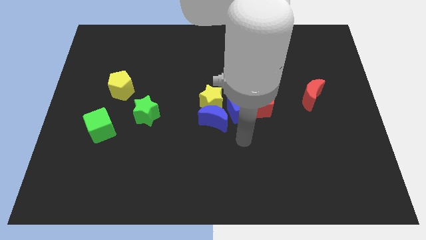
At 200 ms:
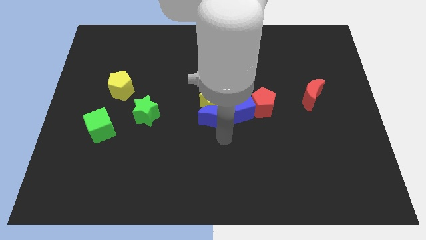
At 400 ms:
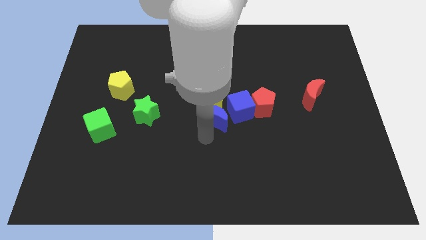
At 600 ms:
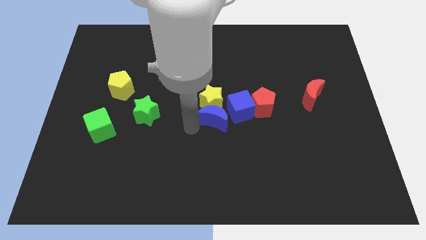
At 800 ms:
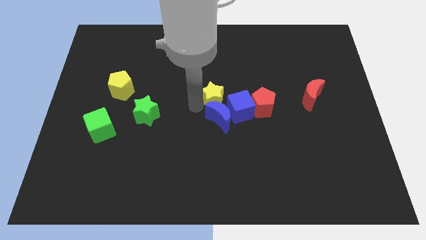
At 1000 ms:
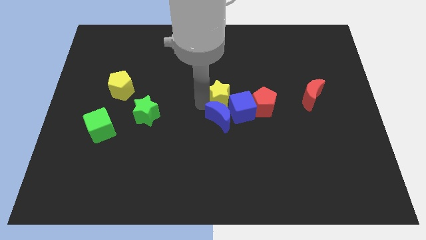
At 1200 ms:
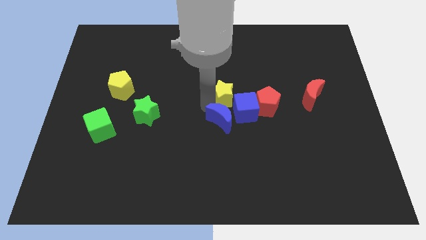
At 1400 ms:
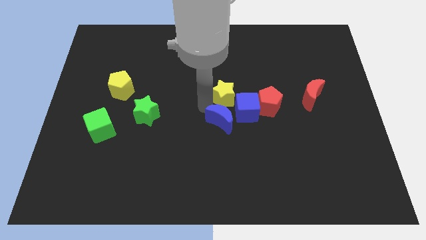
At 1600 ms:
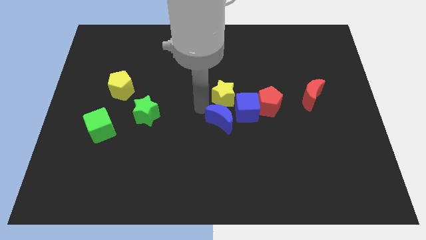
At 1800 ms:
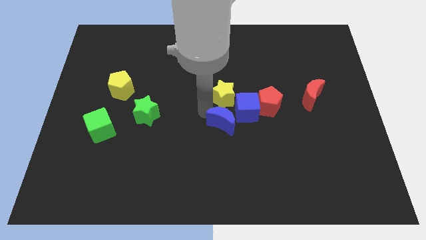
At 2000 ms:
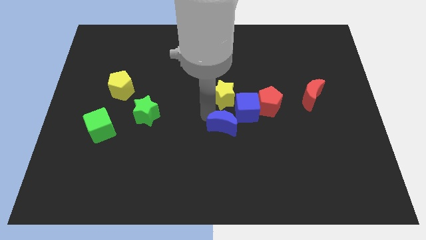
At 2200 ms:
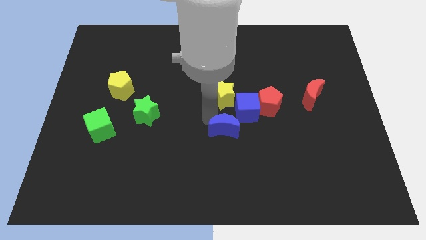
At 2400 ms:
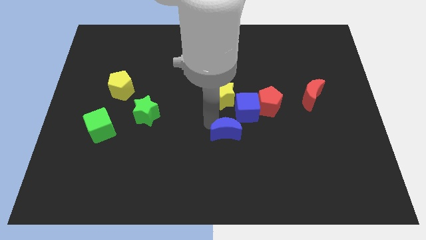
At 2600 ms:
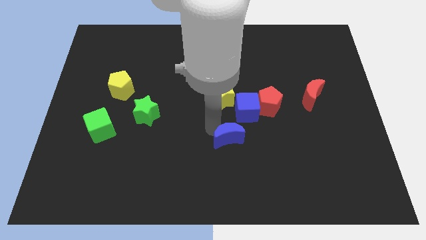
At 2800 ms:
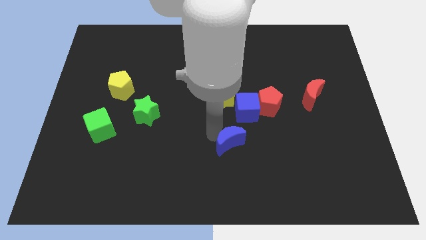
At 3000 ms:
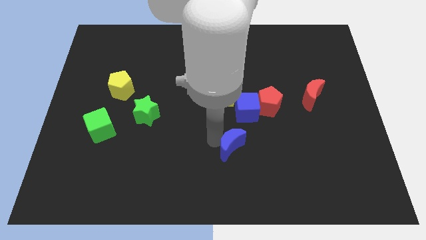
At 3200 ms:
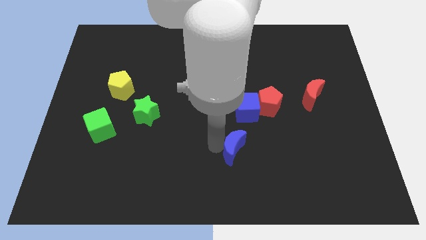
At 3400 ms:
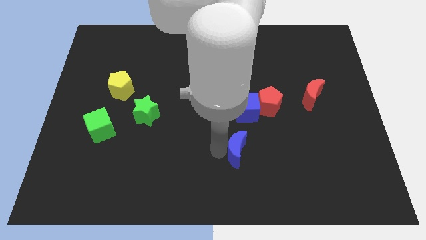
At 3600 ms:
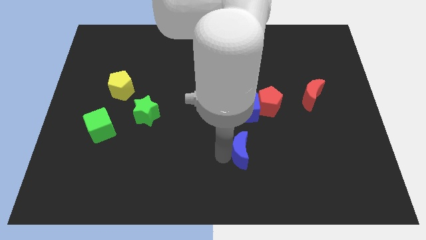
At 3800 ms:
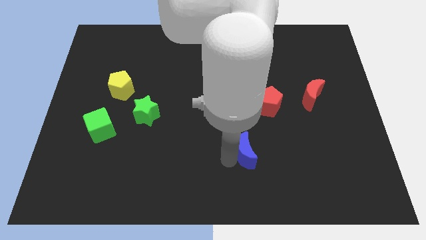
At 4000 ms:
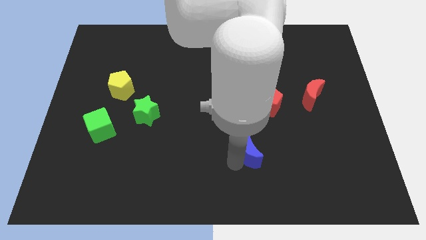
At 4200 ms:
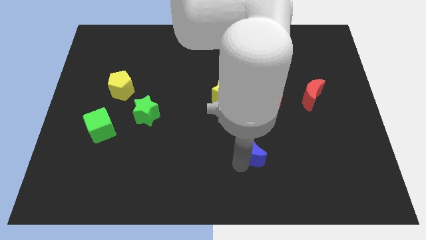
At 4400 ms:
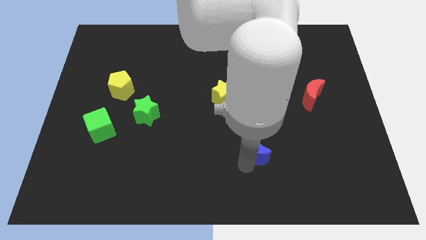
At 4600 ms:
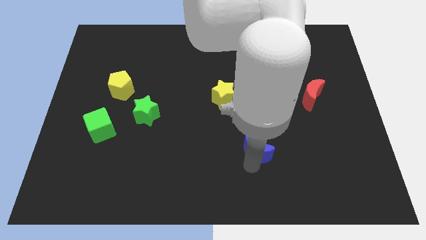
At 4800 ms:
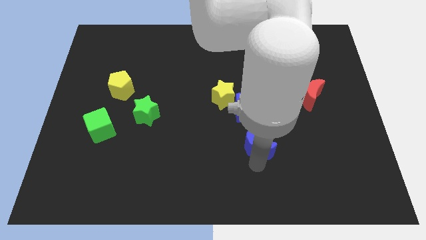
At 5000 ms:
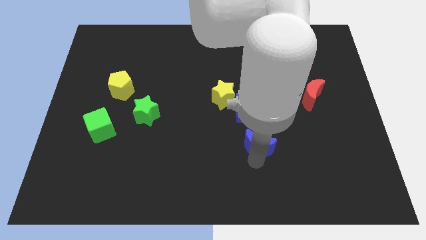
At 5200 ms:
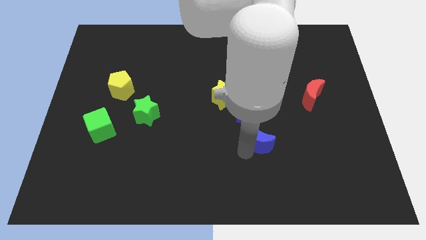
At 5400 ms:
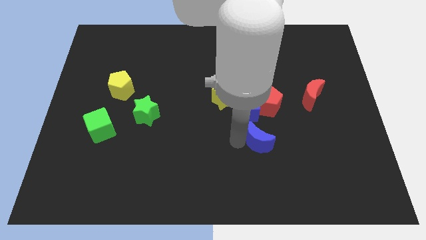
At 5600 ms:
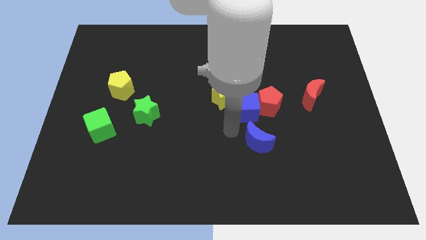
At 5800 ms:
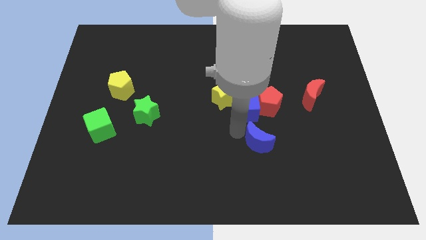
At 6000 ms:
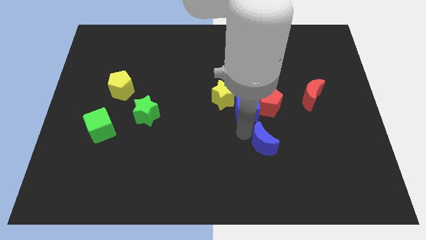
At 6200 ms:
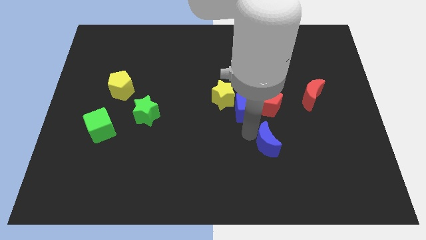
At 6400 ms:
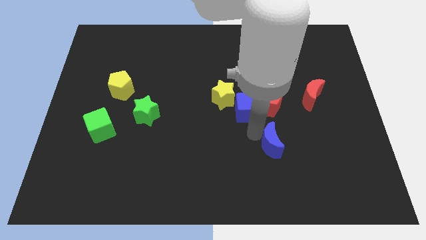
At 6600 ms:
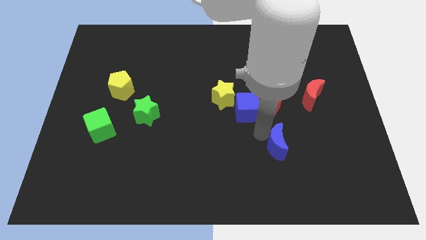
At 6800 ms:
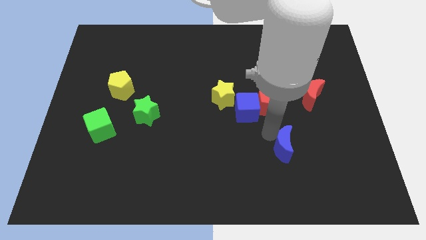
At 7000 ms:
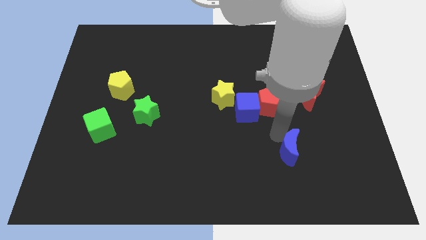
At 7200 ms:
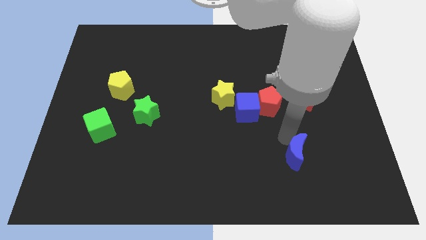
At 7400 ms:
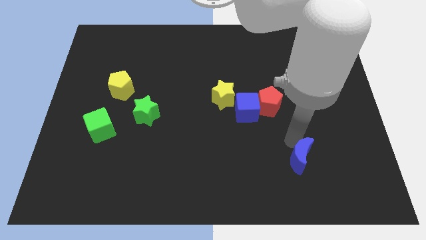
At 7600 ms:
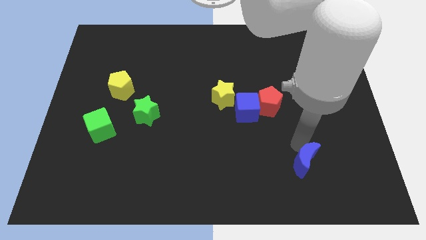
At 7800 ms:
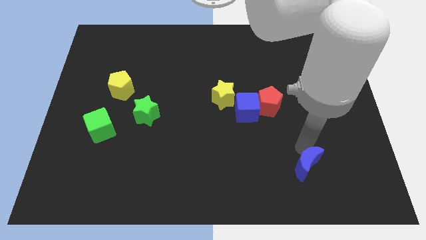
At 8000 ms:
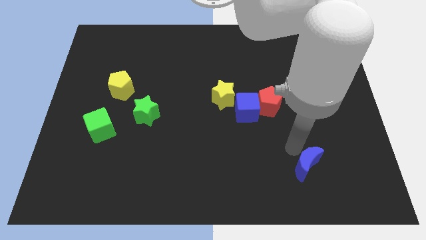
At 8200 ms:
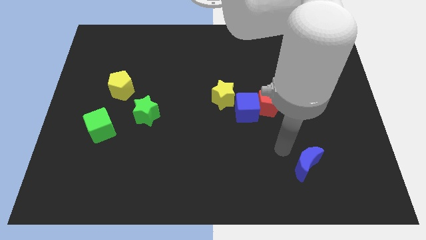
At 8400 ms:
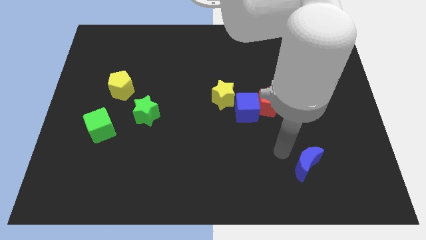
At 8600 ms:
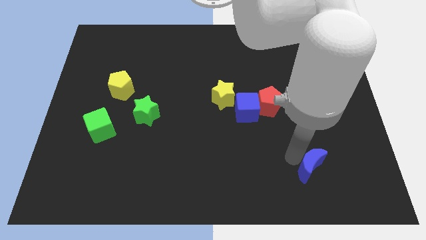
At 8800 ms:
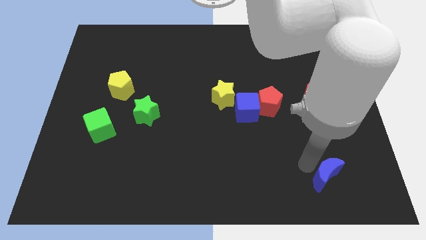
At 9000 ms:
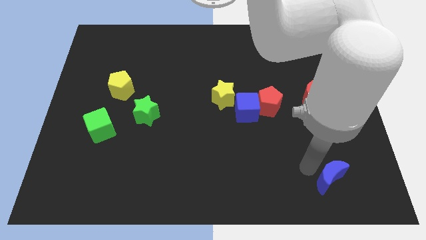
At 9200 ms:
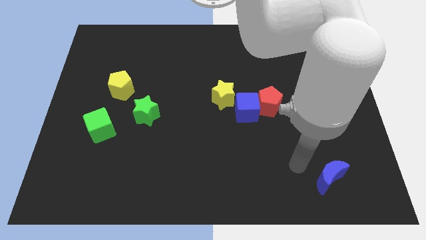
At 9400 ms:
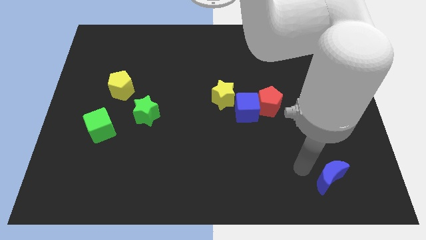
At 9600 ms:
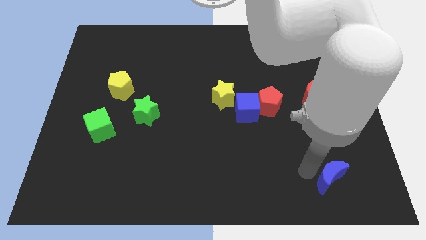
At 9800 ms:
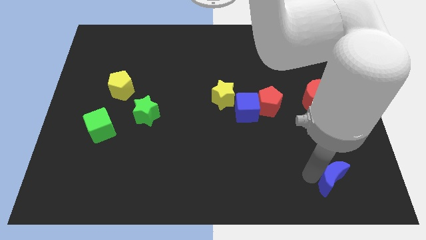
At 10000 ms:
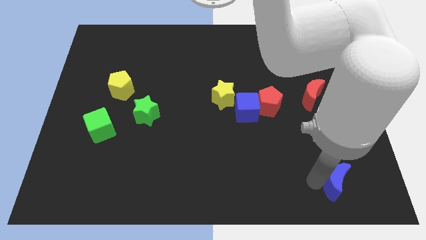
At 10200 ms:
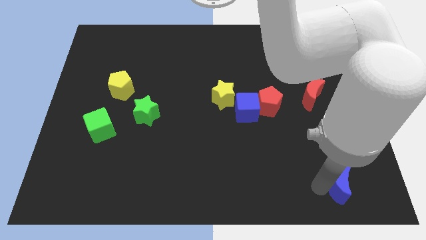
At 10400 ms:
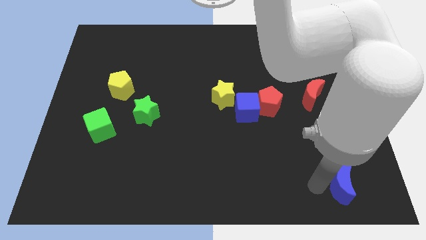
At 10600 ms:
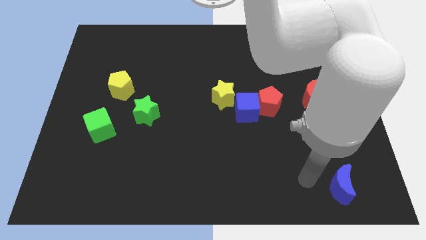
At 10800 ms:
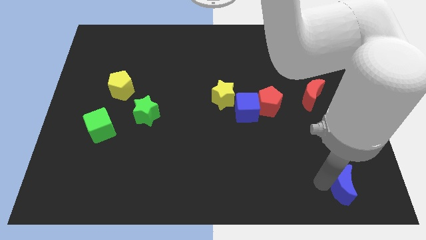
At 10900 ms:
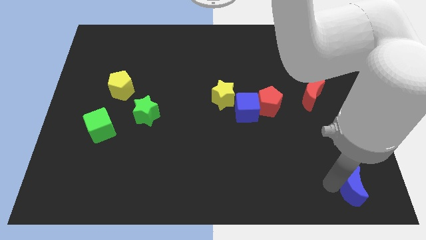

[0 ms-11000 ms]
push the blue moon to the lower right corner

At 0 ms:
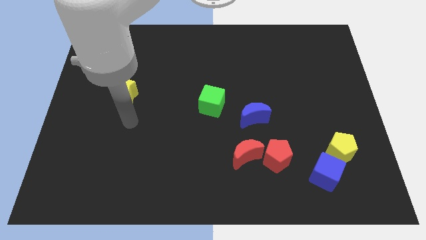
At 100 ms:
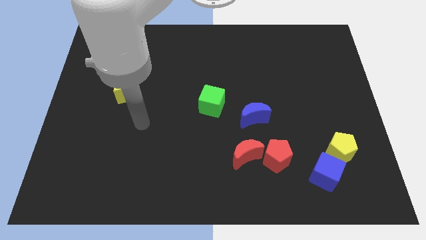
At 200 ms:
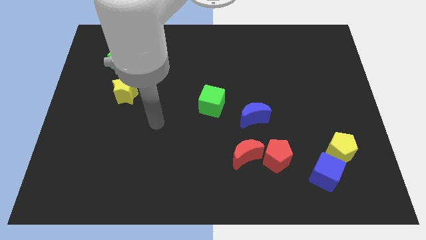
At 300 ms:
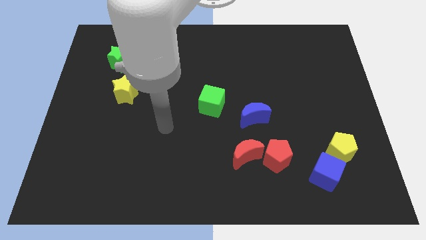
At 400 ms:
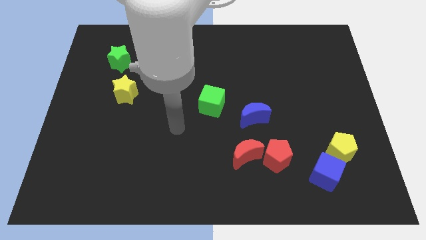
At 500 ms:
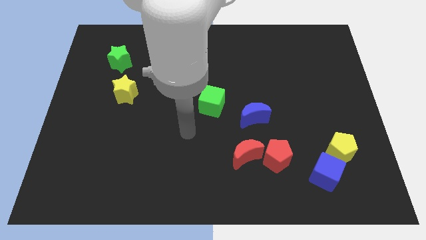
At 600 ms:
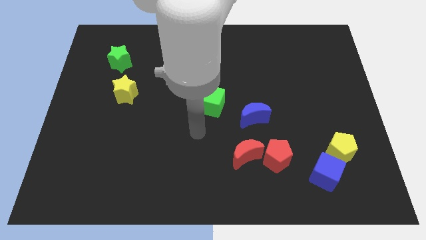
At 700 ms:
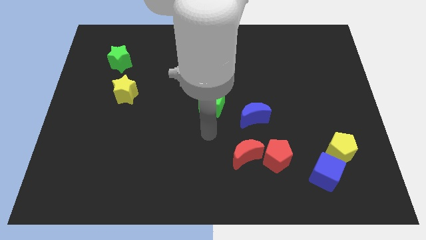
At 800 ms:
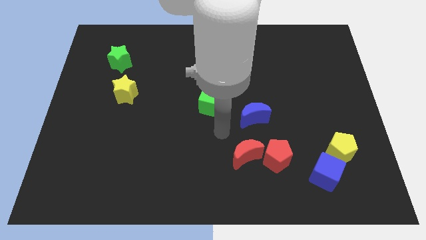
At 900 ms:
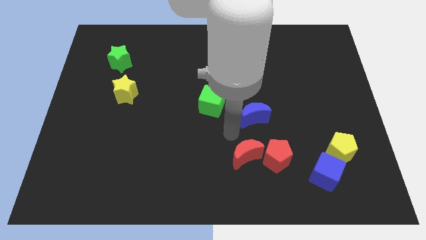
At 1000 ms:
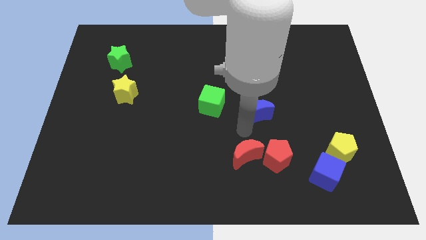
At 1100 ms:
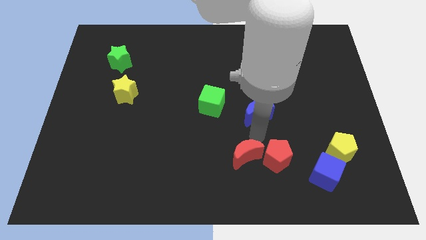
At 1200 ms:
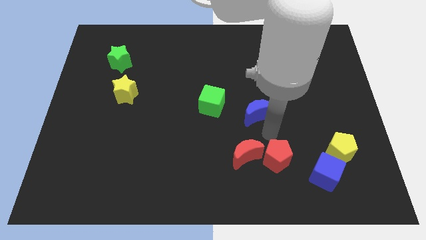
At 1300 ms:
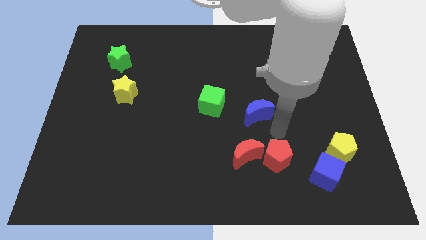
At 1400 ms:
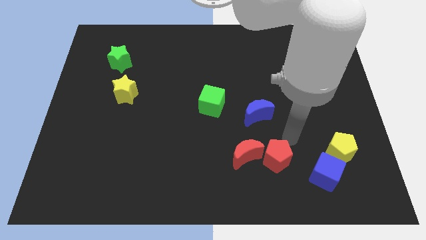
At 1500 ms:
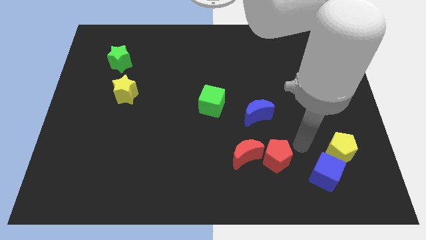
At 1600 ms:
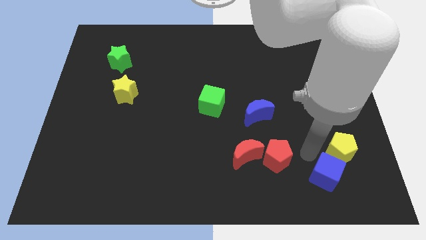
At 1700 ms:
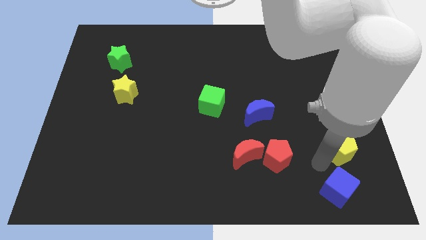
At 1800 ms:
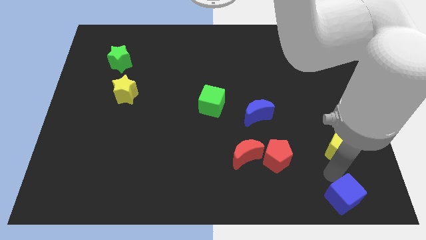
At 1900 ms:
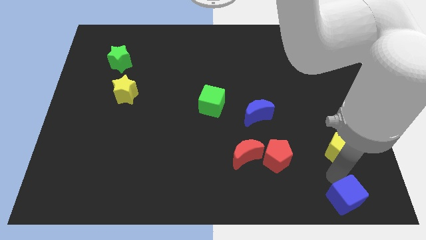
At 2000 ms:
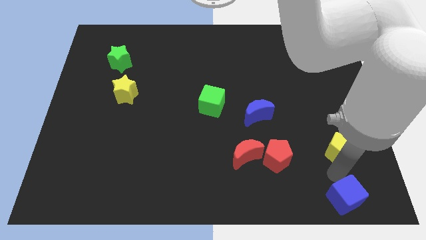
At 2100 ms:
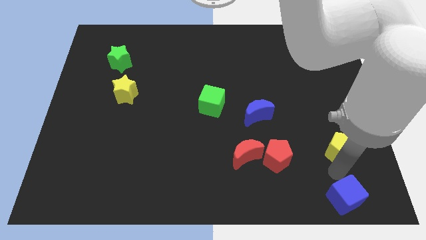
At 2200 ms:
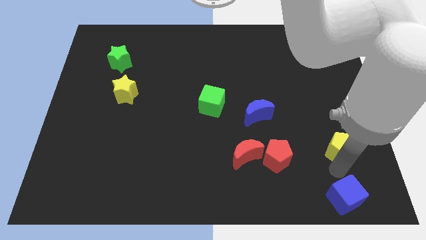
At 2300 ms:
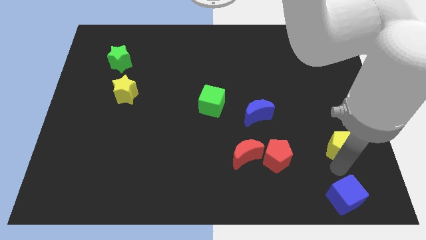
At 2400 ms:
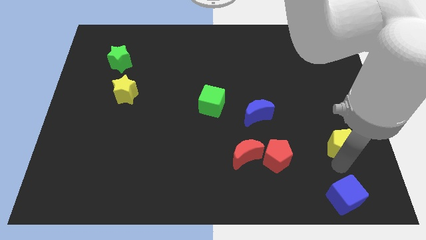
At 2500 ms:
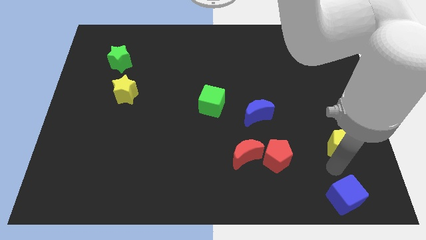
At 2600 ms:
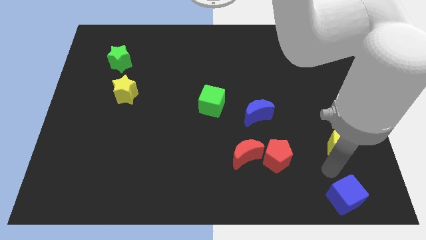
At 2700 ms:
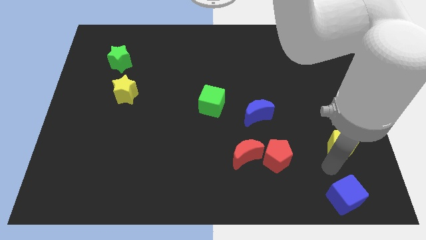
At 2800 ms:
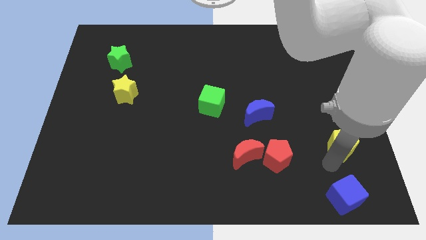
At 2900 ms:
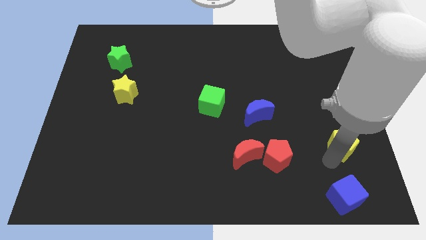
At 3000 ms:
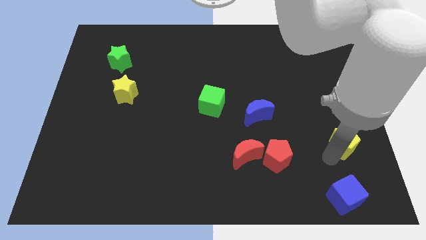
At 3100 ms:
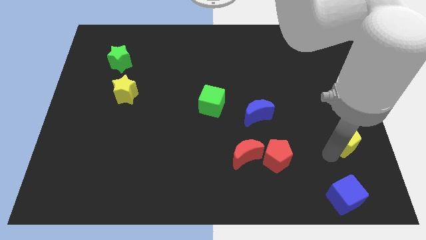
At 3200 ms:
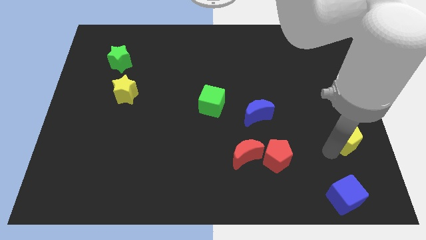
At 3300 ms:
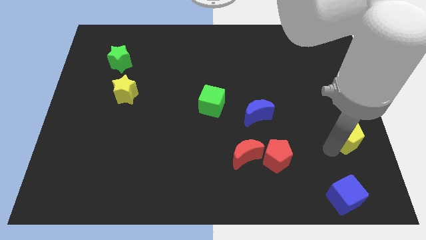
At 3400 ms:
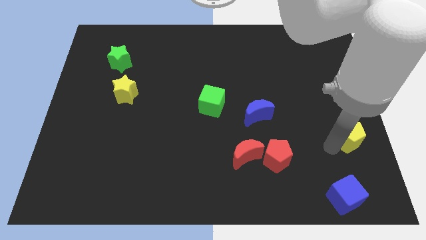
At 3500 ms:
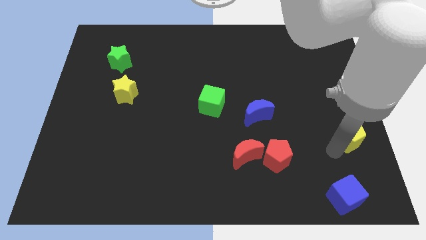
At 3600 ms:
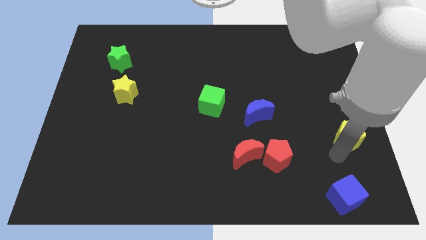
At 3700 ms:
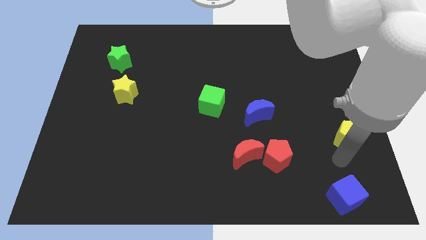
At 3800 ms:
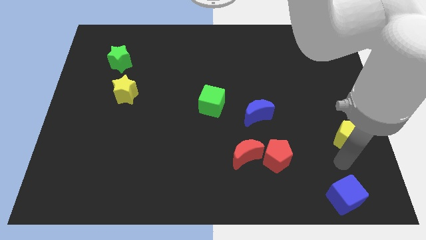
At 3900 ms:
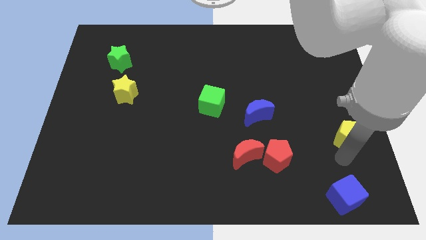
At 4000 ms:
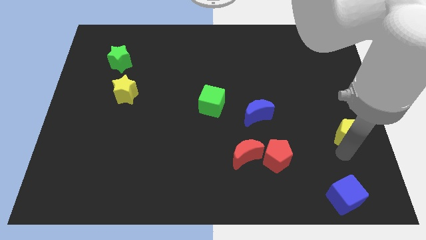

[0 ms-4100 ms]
push the yellow pentagon to the center right
